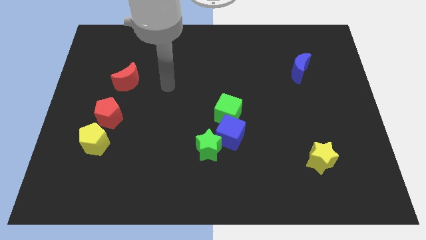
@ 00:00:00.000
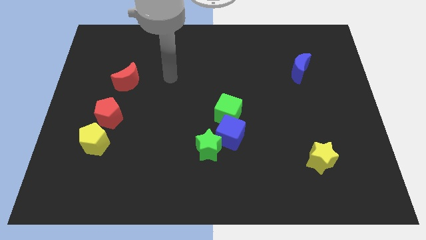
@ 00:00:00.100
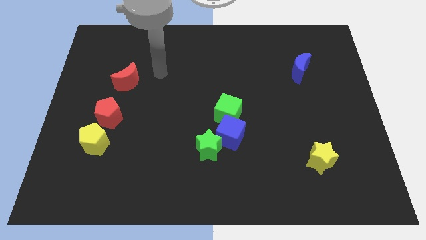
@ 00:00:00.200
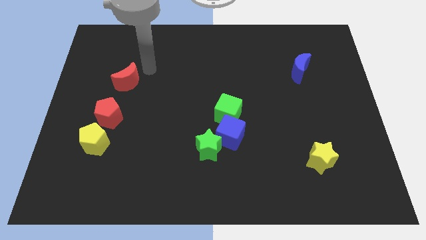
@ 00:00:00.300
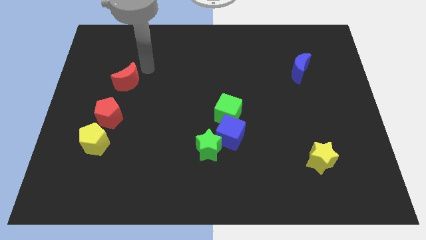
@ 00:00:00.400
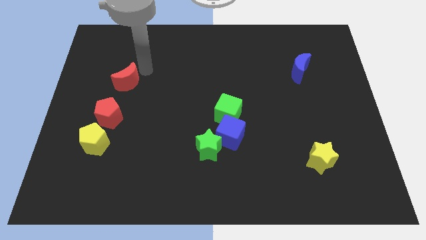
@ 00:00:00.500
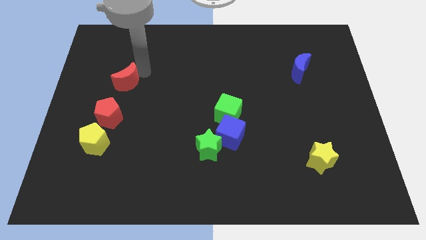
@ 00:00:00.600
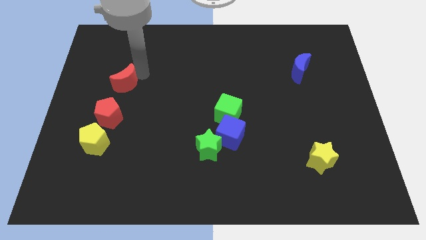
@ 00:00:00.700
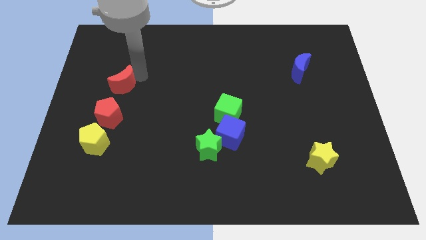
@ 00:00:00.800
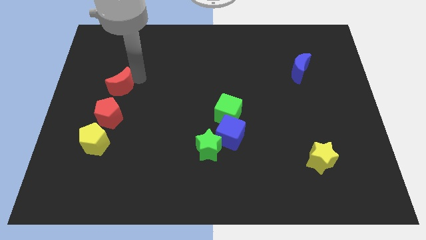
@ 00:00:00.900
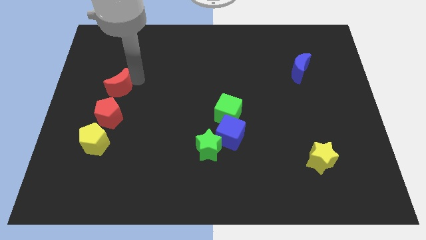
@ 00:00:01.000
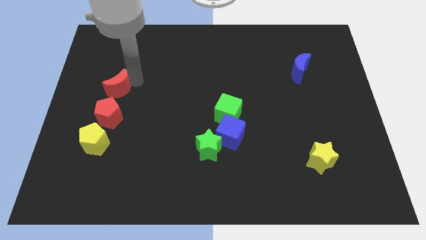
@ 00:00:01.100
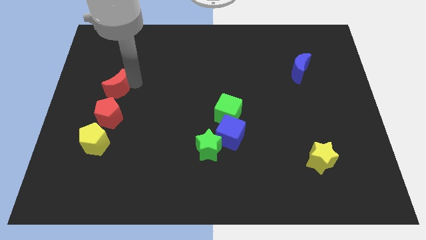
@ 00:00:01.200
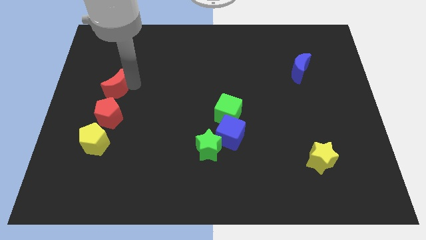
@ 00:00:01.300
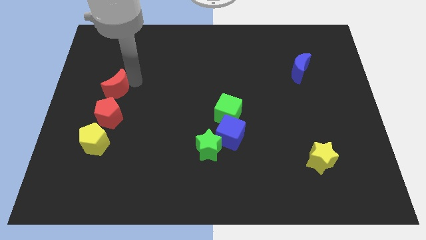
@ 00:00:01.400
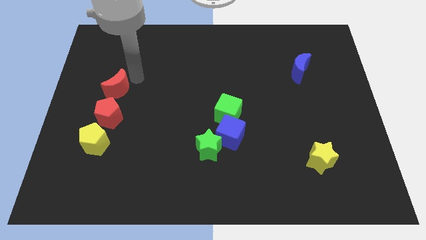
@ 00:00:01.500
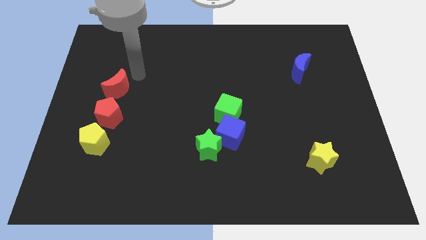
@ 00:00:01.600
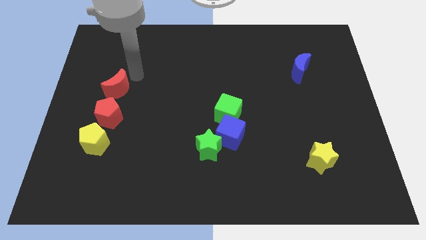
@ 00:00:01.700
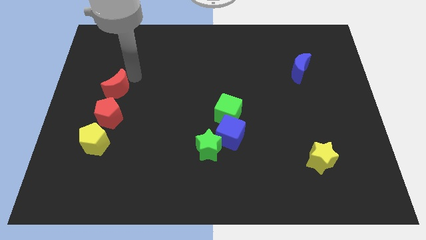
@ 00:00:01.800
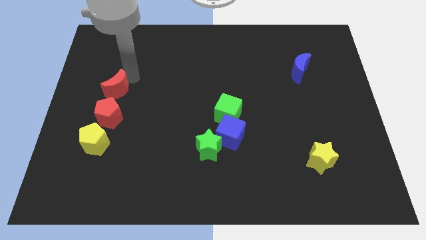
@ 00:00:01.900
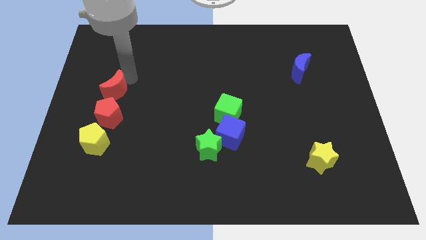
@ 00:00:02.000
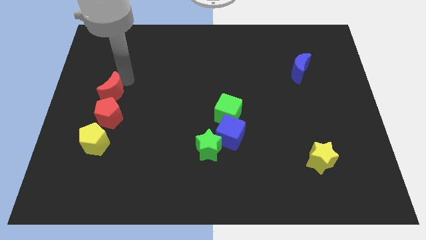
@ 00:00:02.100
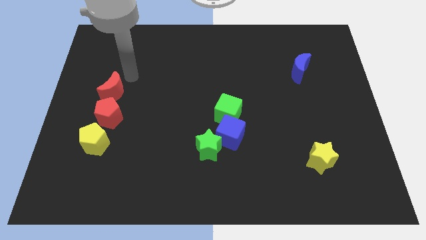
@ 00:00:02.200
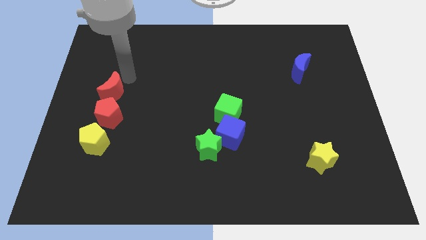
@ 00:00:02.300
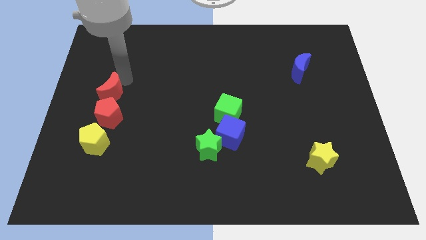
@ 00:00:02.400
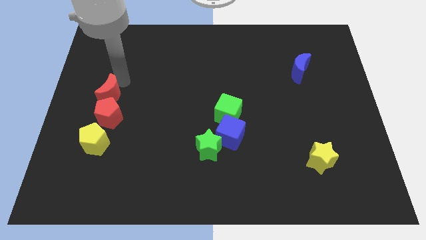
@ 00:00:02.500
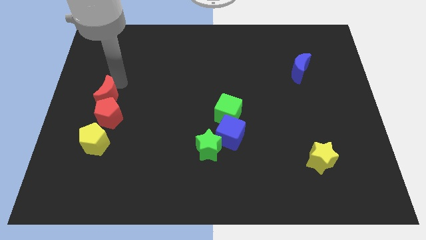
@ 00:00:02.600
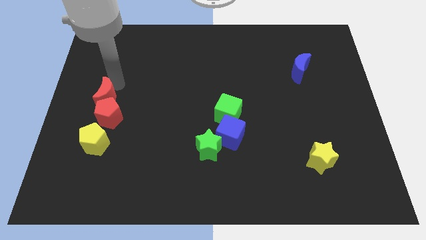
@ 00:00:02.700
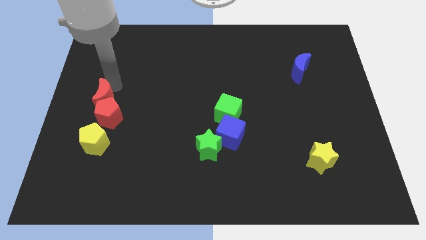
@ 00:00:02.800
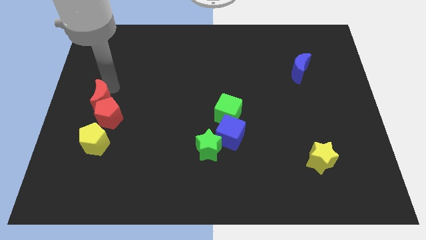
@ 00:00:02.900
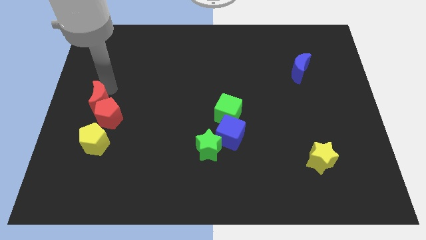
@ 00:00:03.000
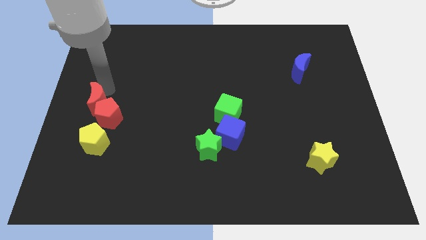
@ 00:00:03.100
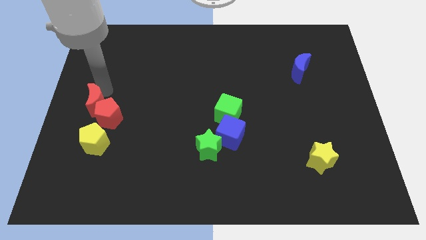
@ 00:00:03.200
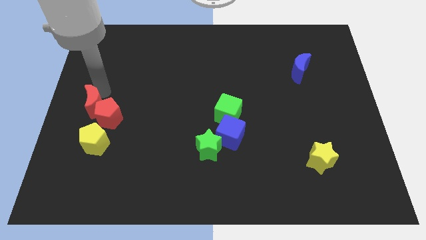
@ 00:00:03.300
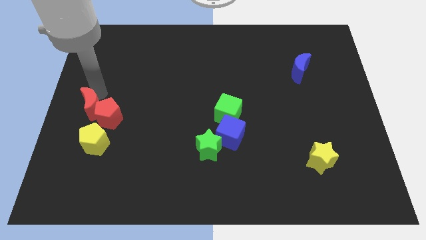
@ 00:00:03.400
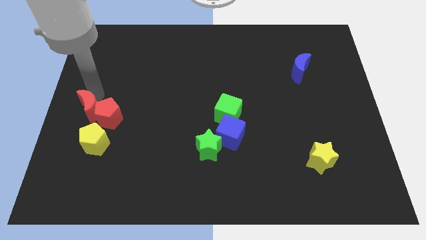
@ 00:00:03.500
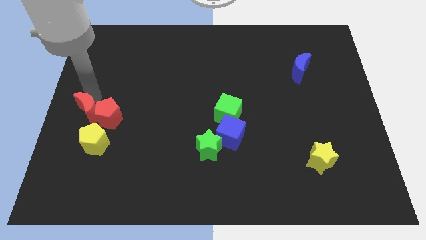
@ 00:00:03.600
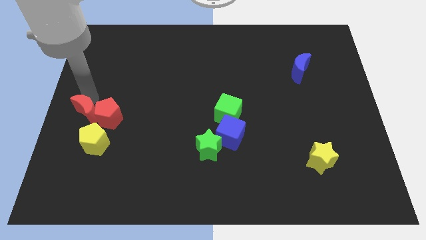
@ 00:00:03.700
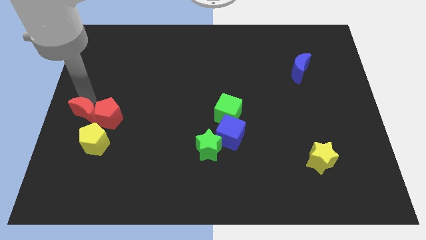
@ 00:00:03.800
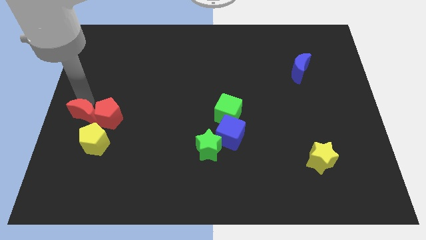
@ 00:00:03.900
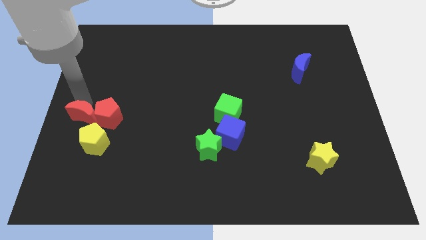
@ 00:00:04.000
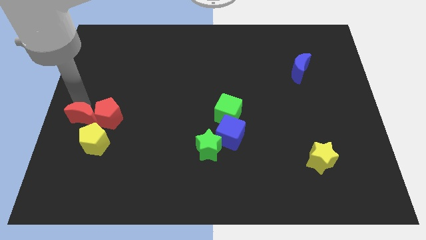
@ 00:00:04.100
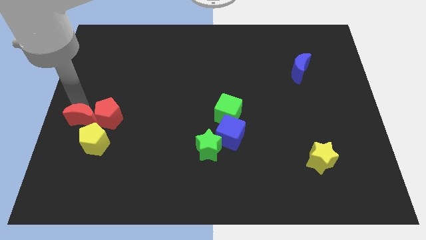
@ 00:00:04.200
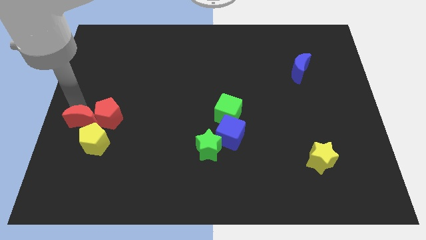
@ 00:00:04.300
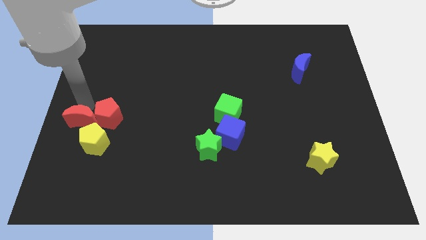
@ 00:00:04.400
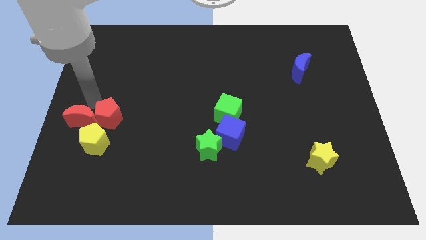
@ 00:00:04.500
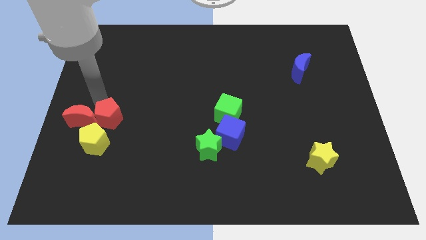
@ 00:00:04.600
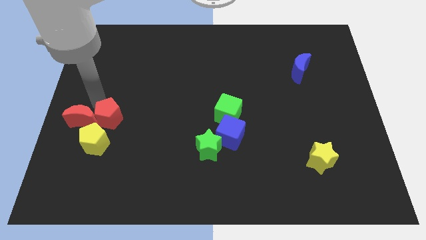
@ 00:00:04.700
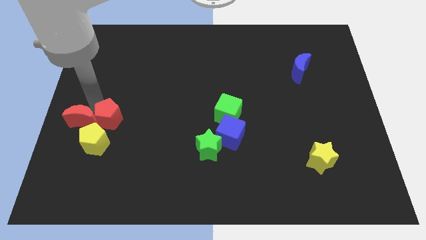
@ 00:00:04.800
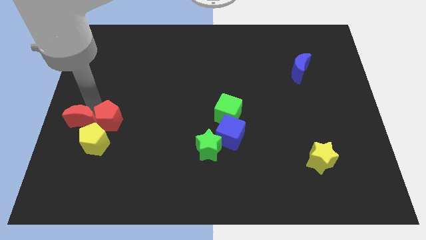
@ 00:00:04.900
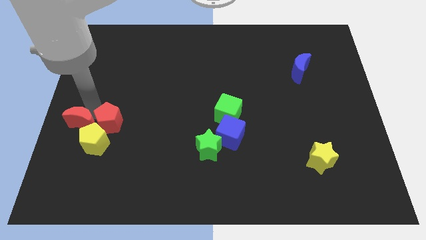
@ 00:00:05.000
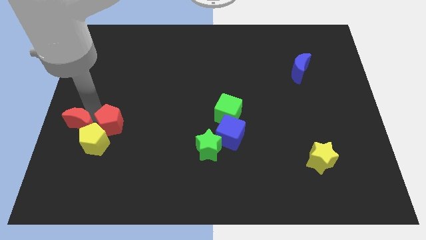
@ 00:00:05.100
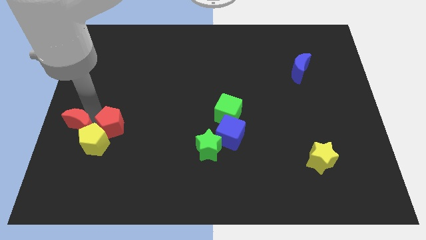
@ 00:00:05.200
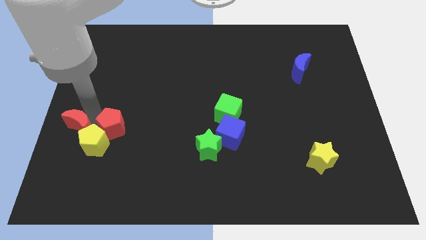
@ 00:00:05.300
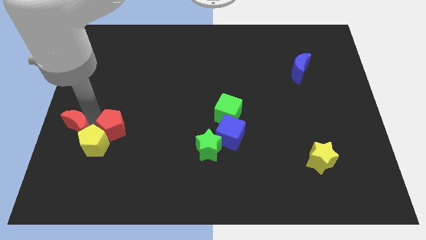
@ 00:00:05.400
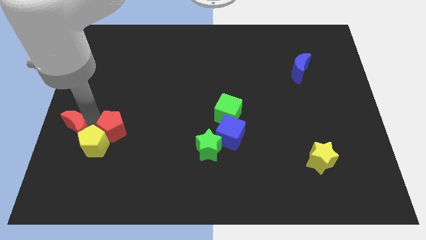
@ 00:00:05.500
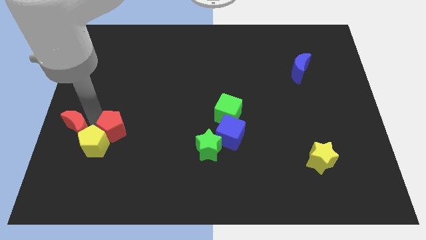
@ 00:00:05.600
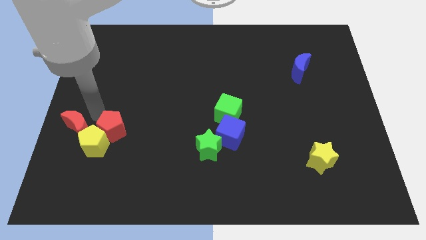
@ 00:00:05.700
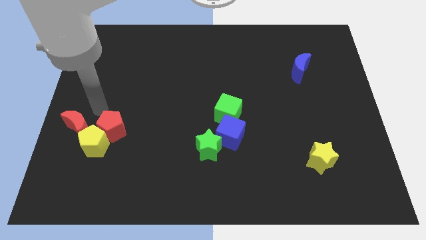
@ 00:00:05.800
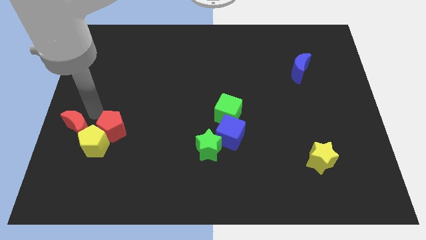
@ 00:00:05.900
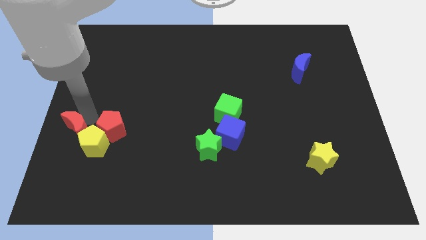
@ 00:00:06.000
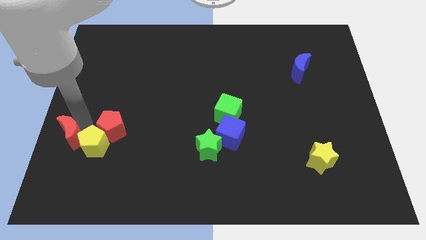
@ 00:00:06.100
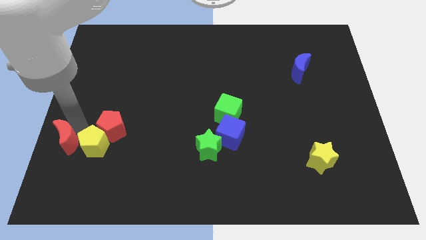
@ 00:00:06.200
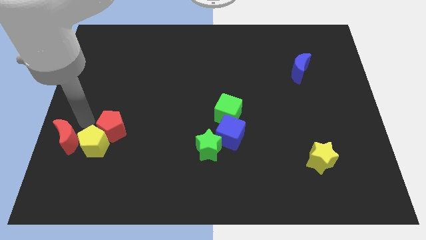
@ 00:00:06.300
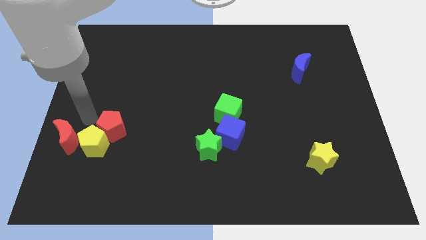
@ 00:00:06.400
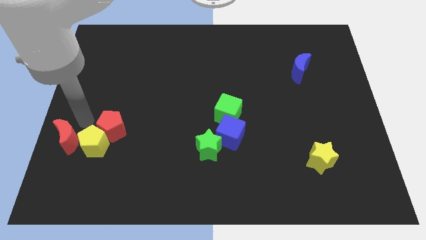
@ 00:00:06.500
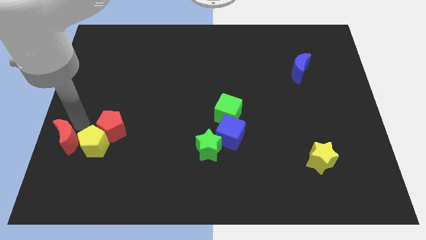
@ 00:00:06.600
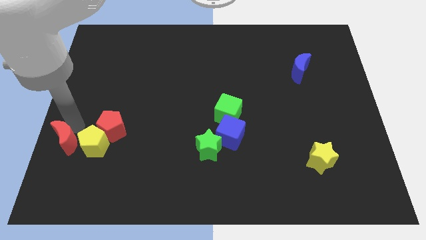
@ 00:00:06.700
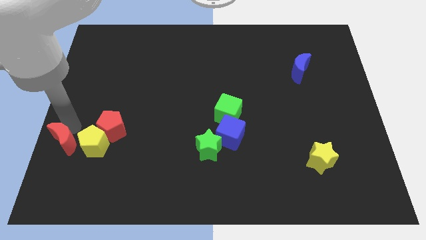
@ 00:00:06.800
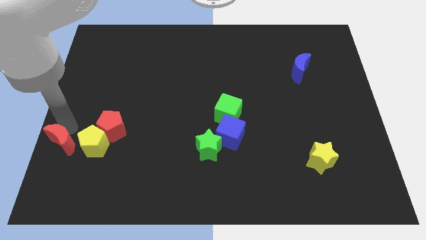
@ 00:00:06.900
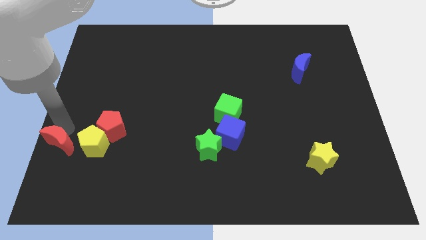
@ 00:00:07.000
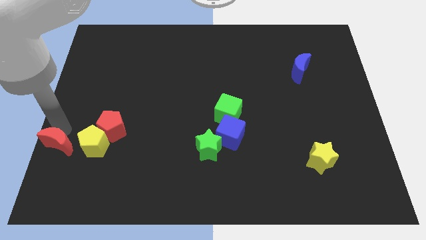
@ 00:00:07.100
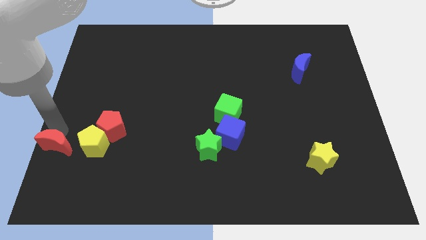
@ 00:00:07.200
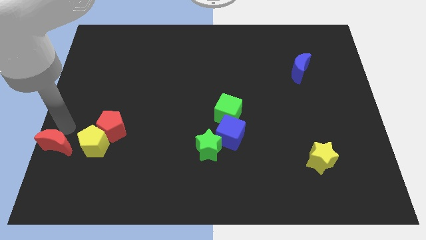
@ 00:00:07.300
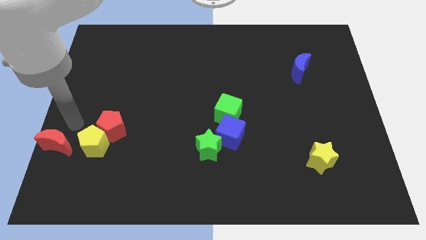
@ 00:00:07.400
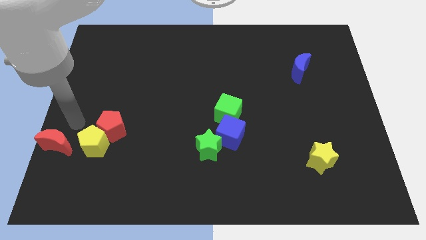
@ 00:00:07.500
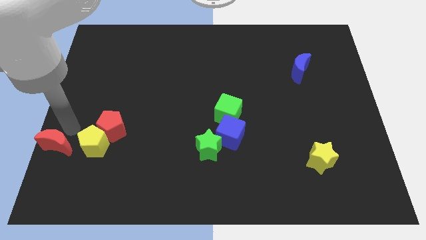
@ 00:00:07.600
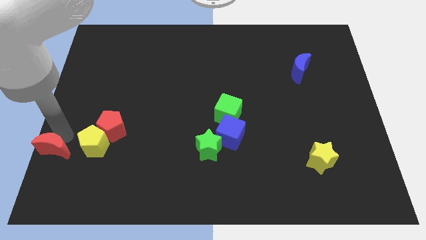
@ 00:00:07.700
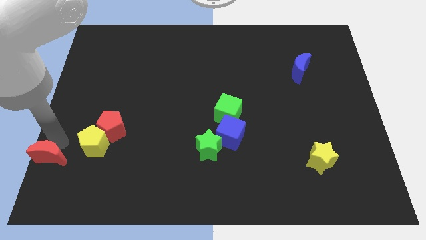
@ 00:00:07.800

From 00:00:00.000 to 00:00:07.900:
put the red moon to the bottom left corner
